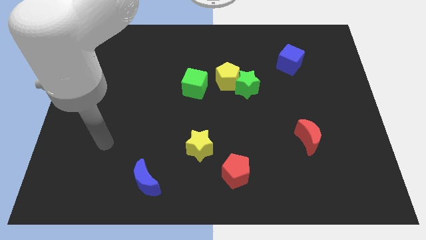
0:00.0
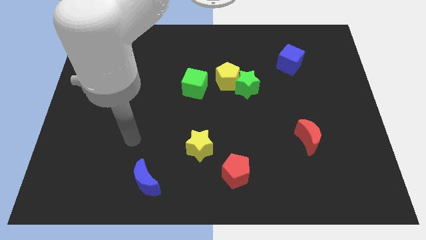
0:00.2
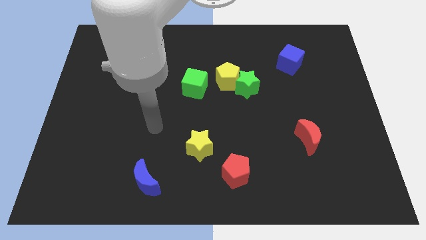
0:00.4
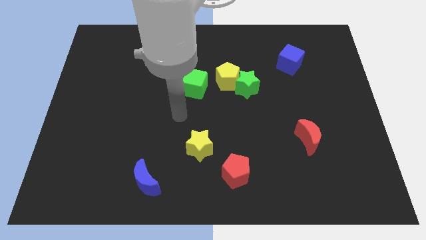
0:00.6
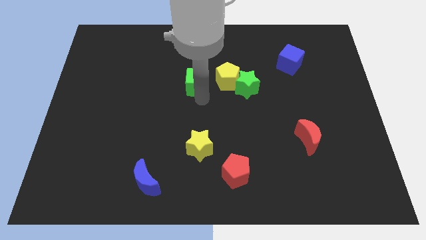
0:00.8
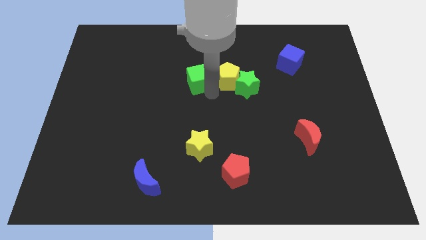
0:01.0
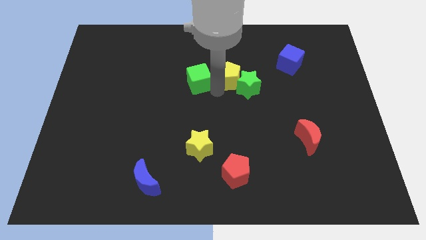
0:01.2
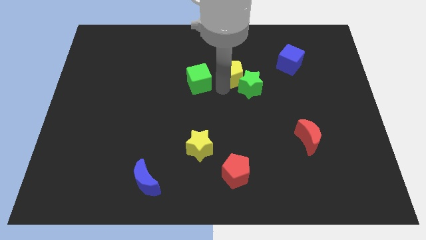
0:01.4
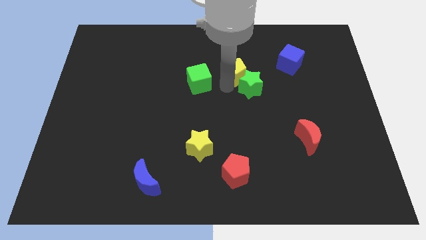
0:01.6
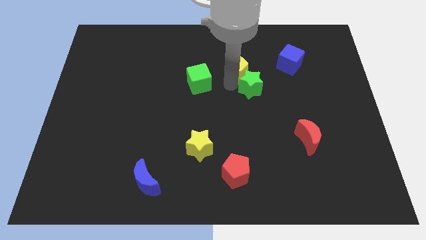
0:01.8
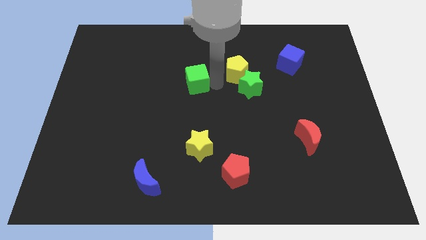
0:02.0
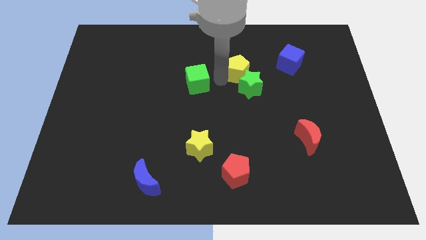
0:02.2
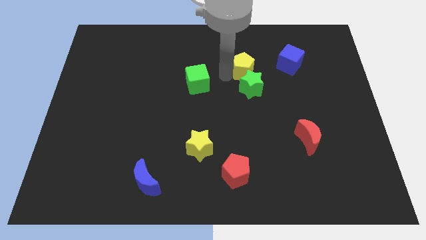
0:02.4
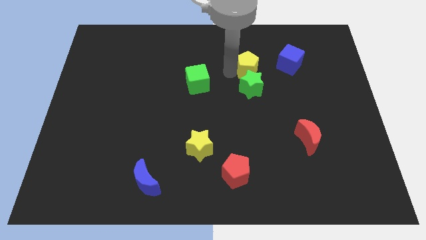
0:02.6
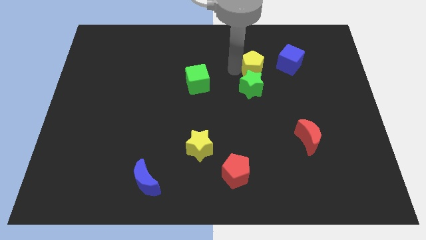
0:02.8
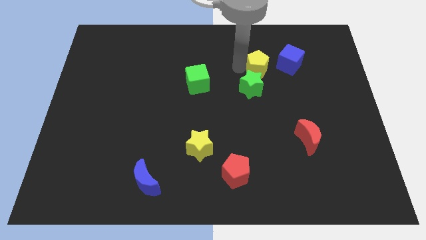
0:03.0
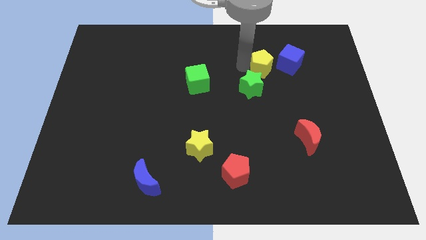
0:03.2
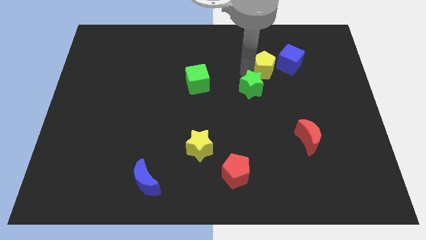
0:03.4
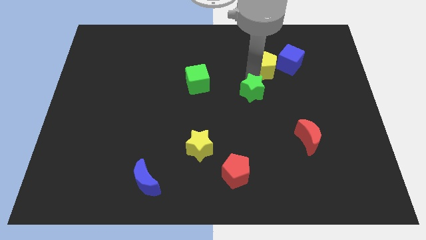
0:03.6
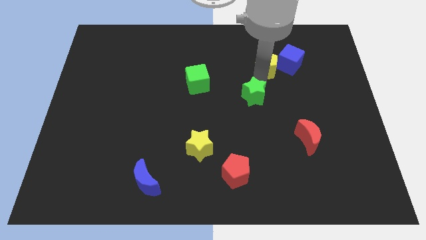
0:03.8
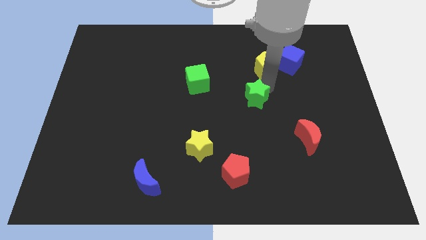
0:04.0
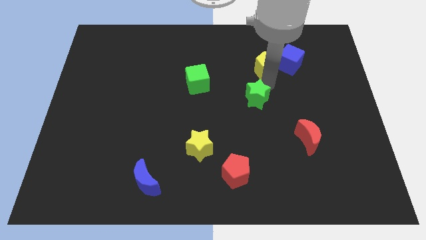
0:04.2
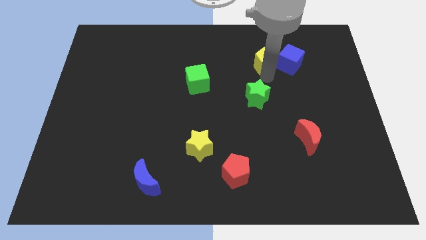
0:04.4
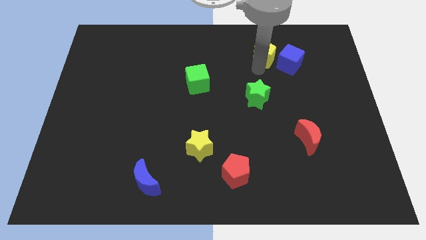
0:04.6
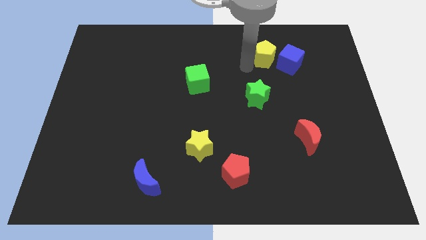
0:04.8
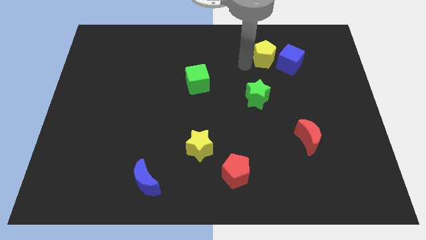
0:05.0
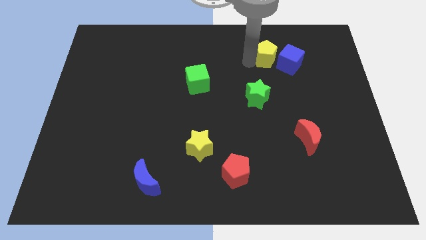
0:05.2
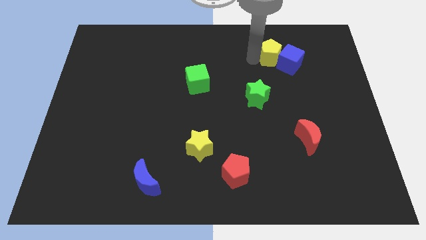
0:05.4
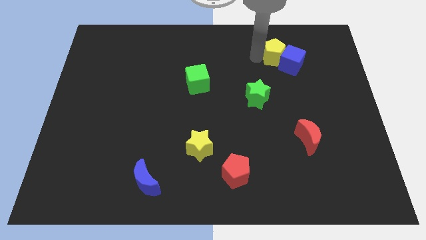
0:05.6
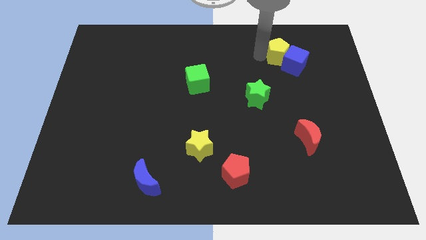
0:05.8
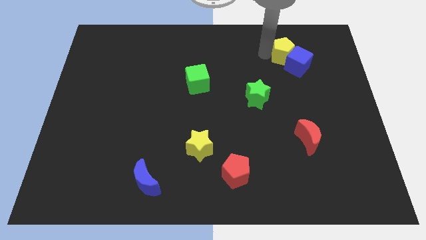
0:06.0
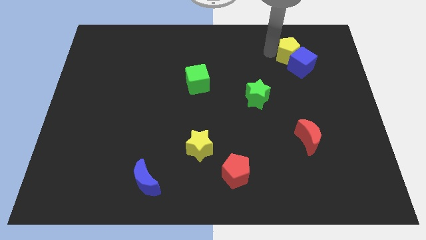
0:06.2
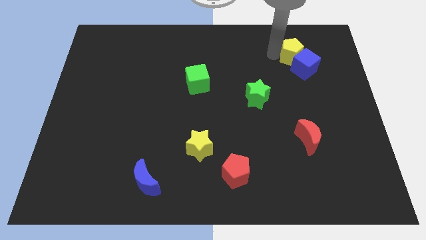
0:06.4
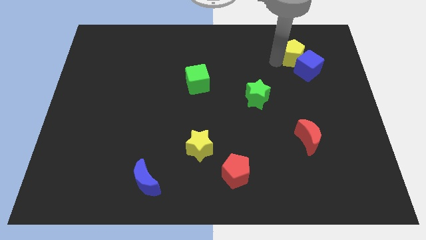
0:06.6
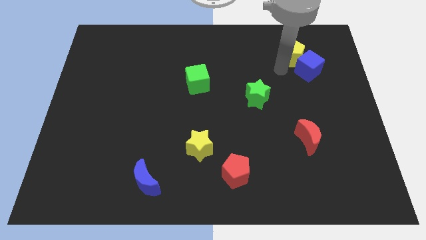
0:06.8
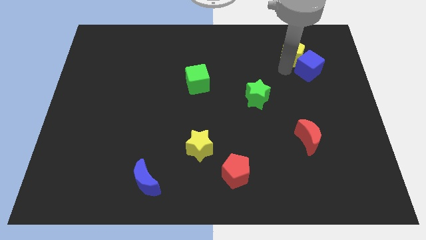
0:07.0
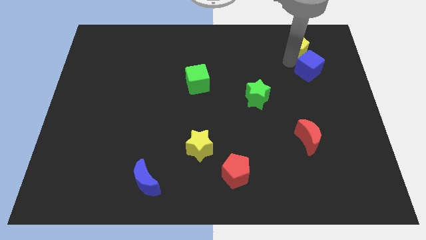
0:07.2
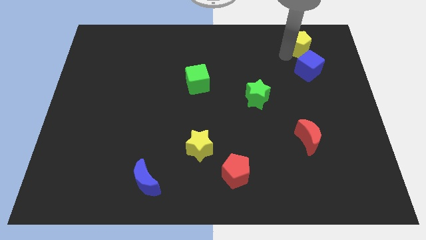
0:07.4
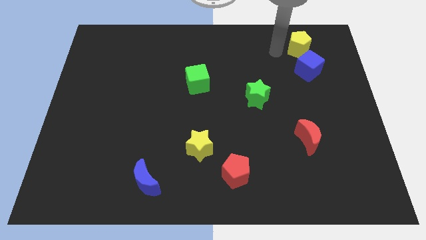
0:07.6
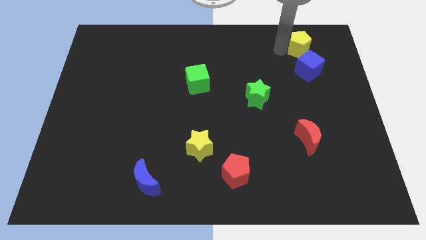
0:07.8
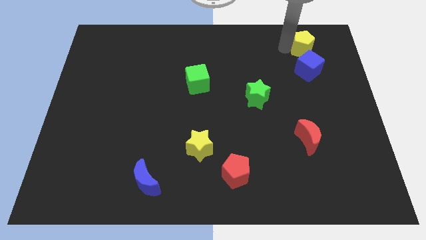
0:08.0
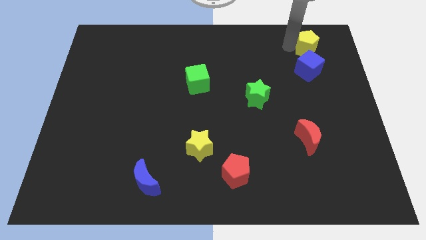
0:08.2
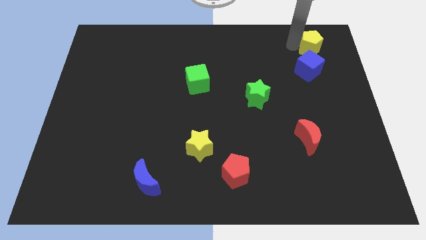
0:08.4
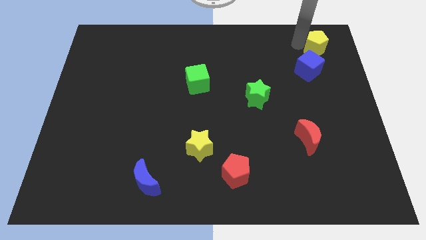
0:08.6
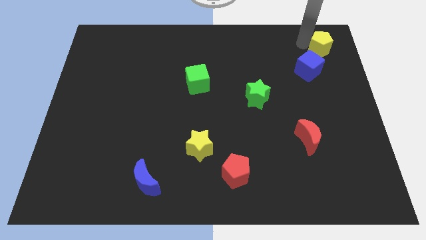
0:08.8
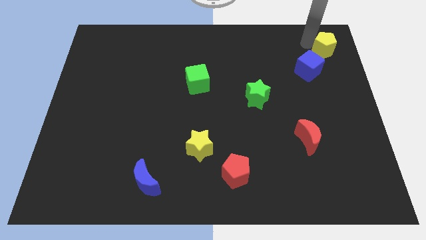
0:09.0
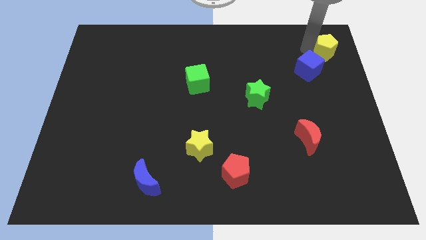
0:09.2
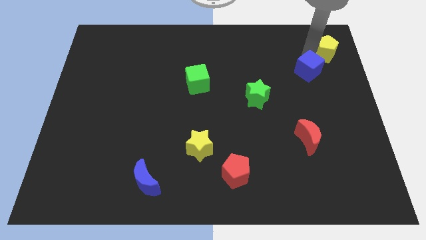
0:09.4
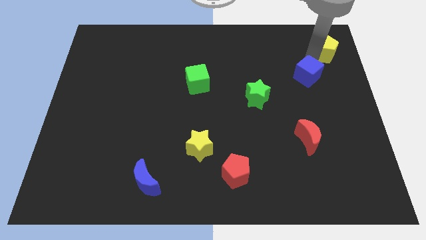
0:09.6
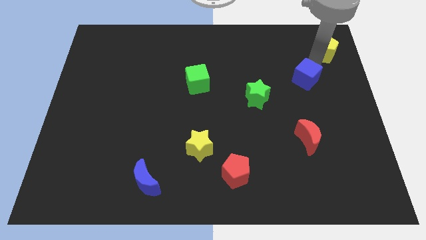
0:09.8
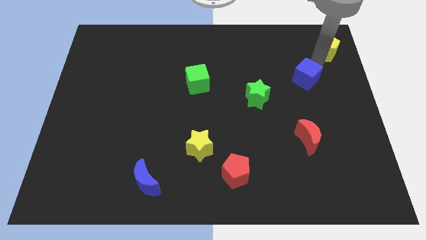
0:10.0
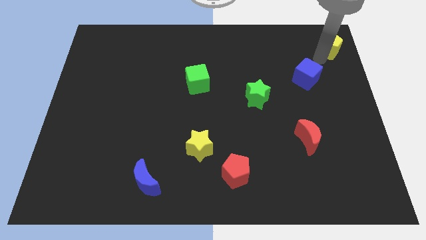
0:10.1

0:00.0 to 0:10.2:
put the yellow pentagon to the top right of the board
